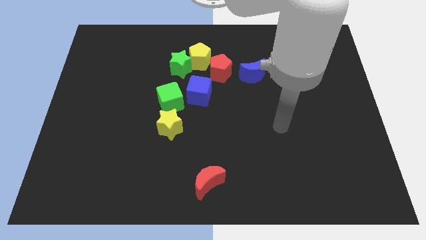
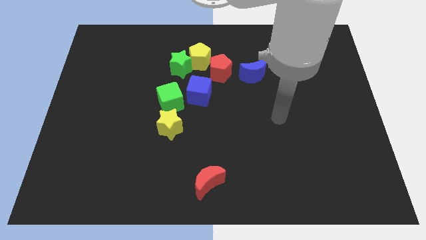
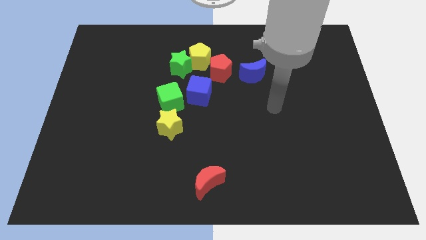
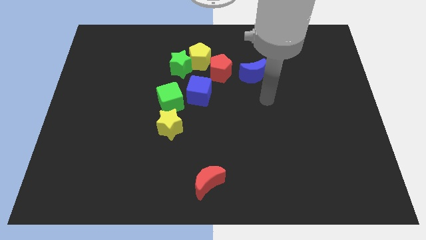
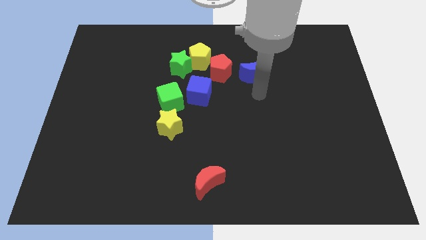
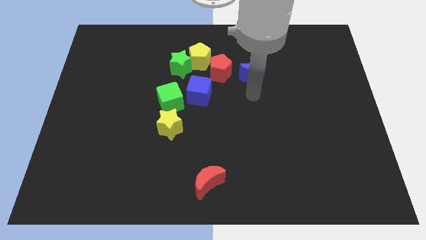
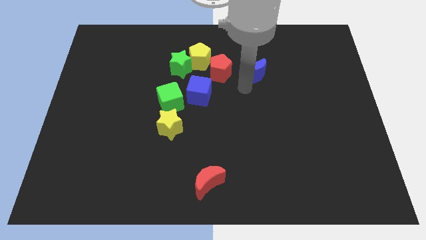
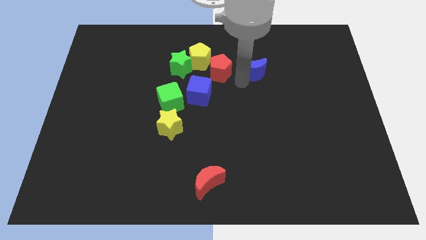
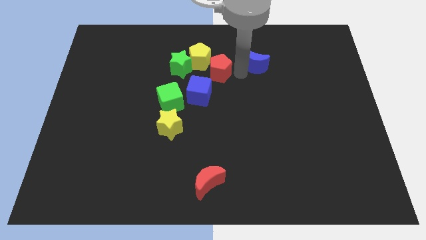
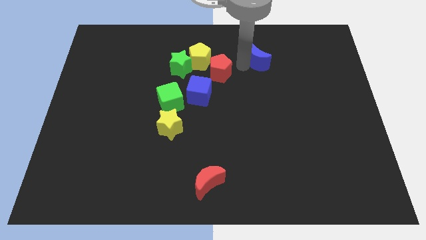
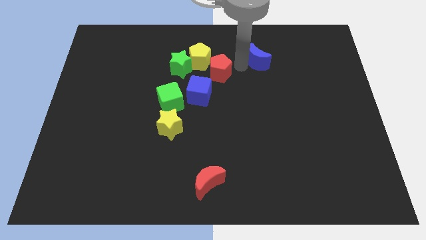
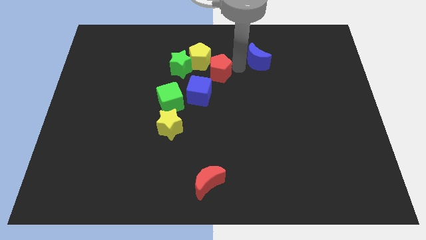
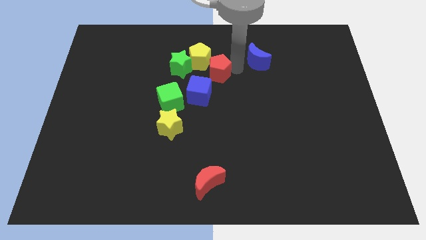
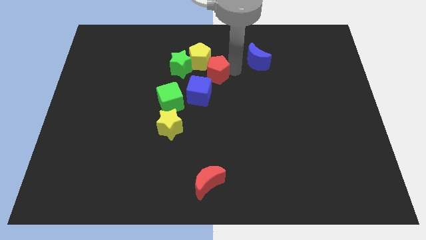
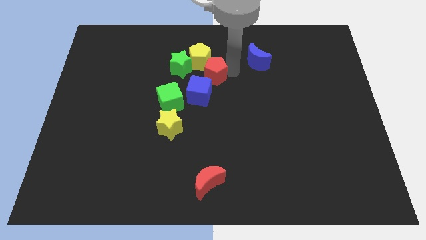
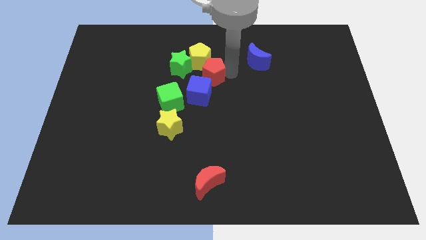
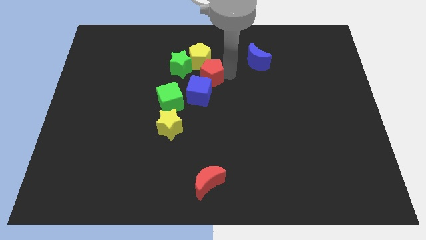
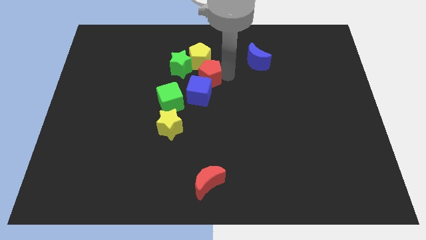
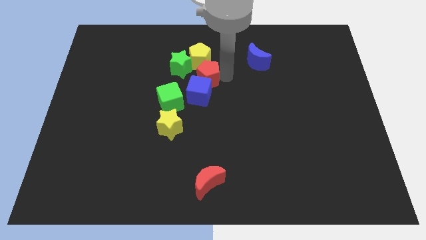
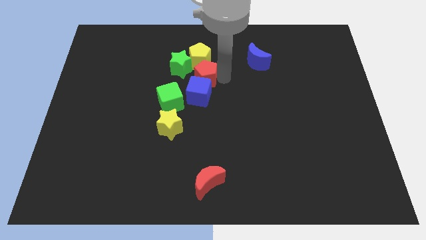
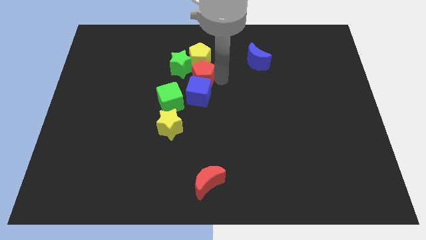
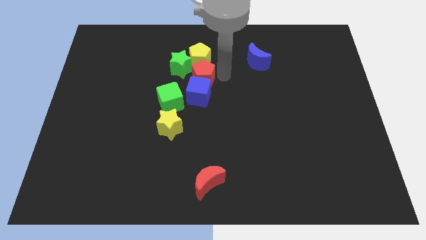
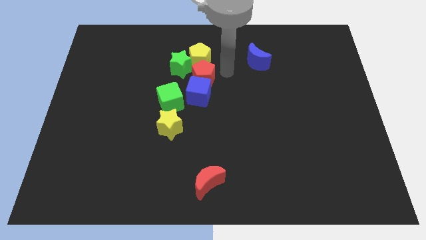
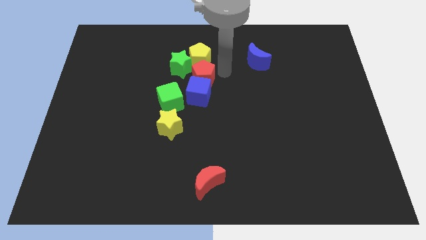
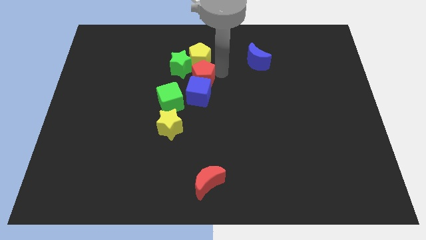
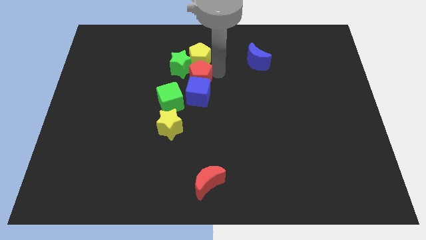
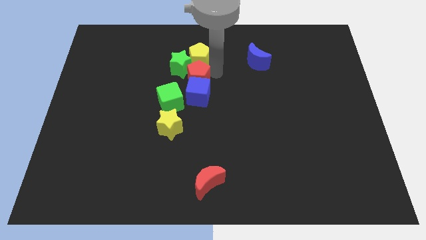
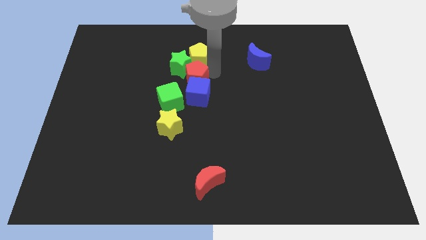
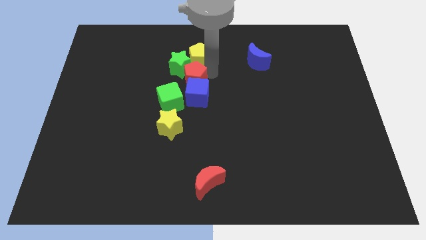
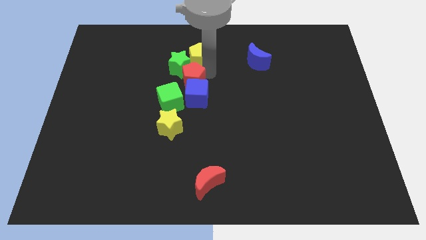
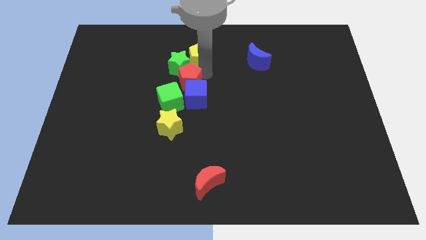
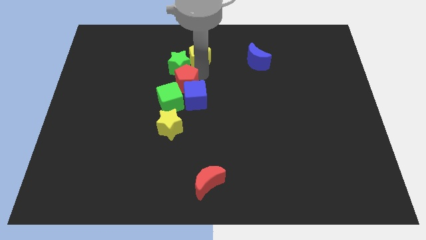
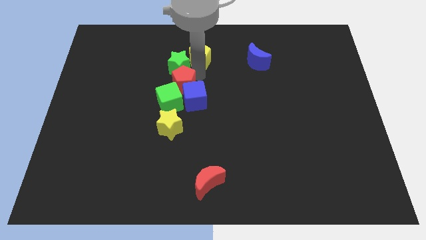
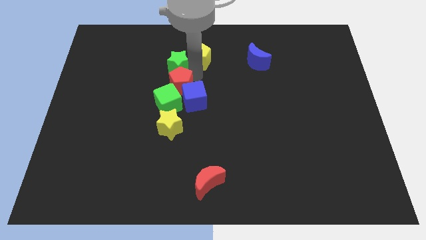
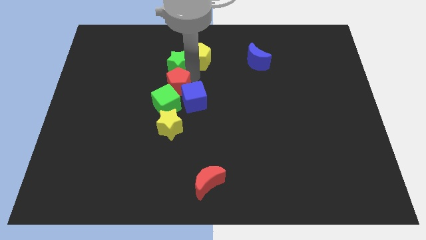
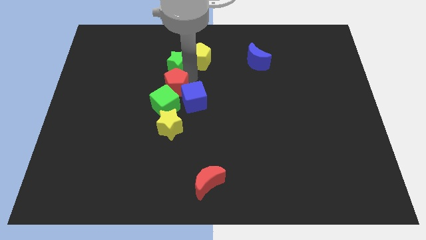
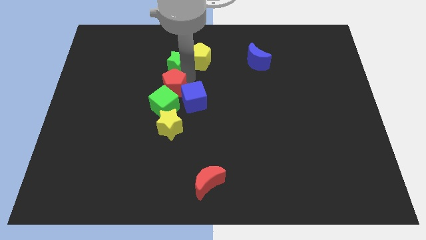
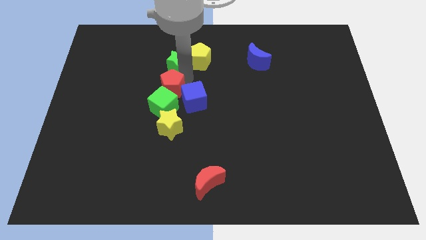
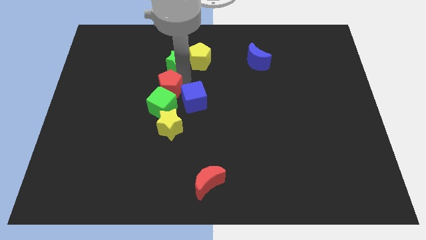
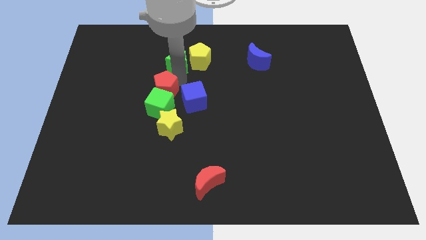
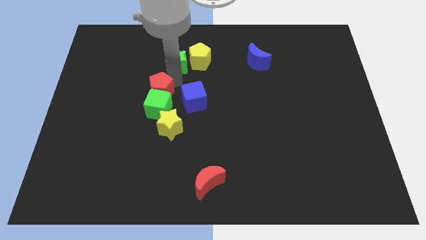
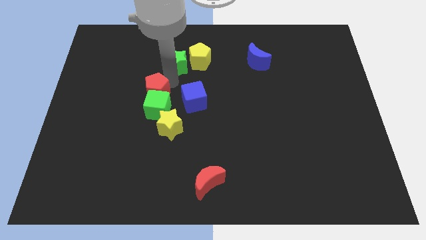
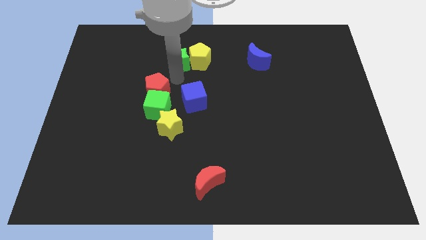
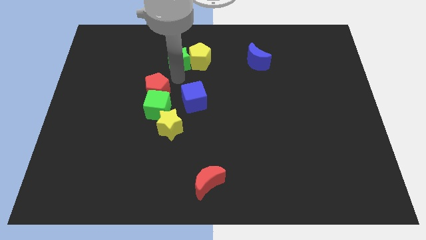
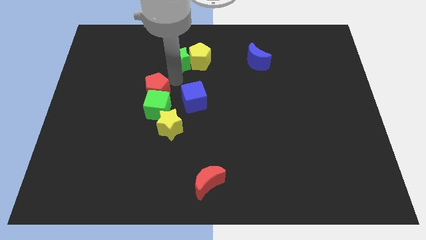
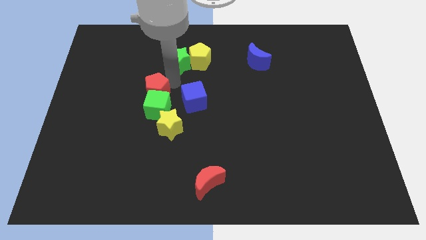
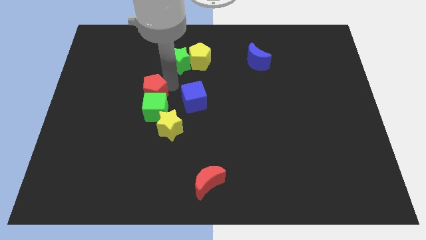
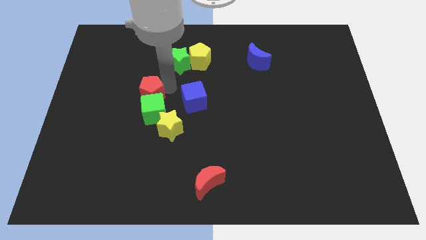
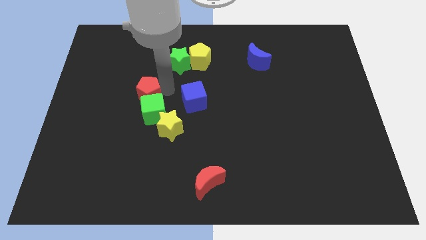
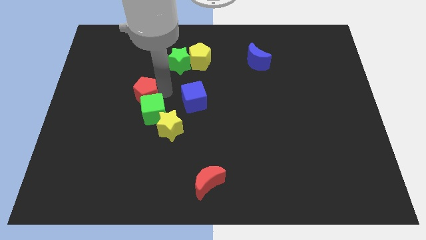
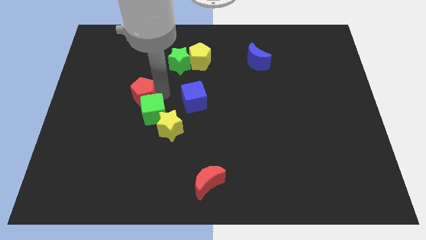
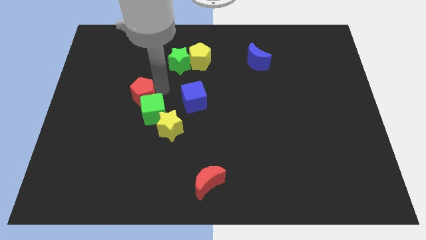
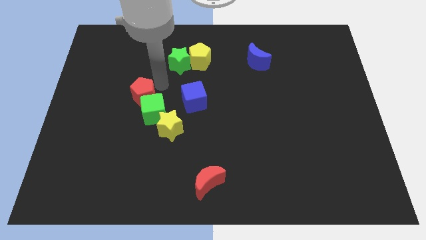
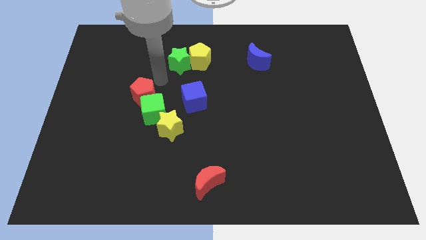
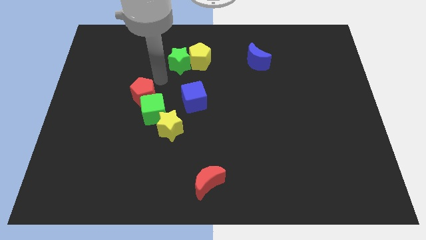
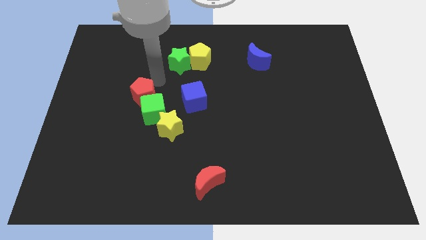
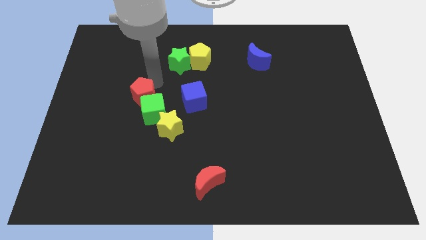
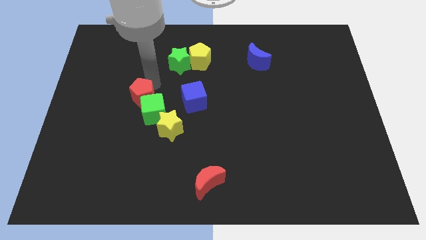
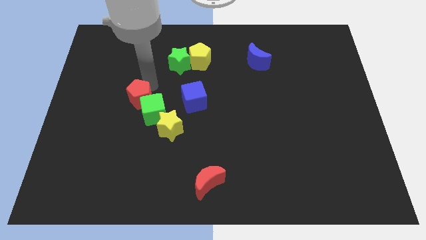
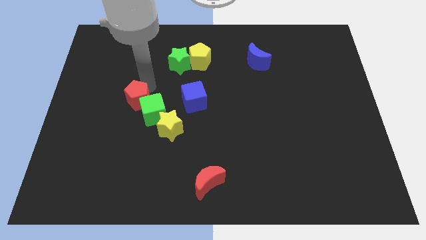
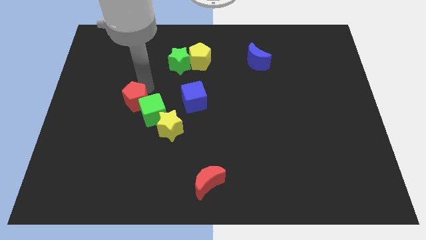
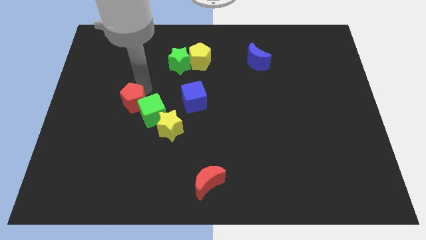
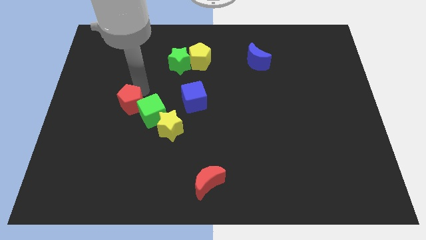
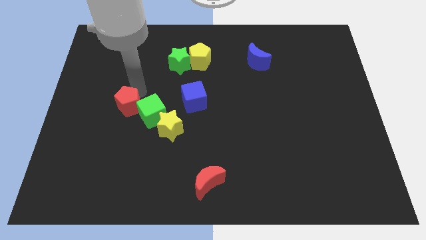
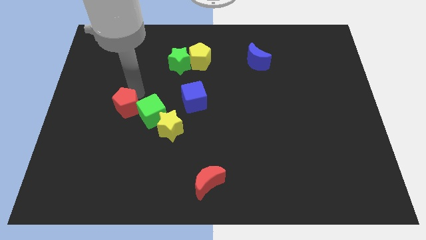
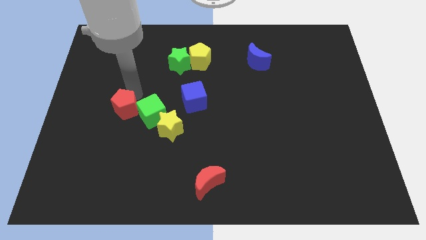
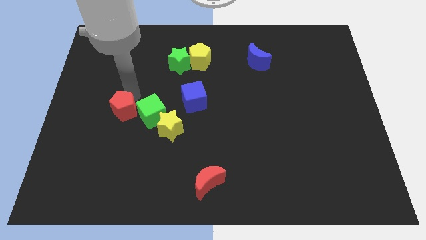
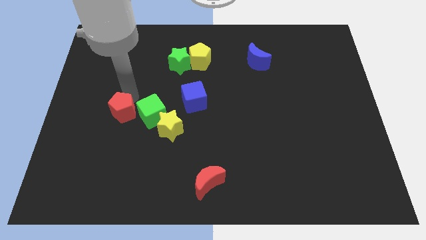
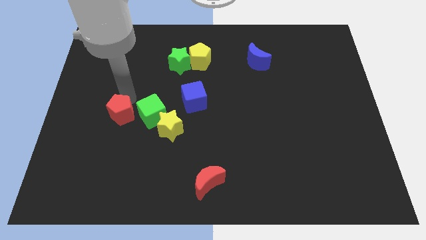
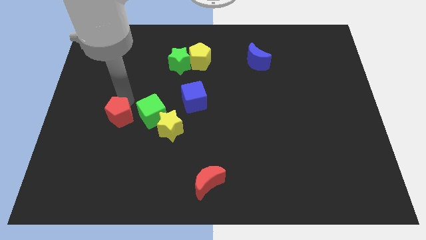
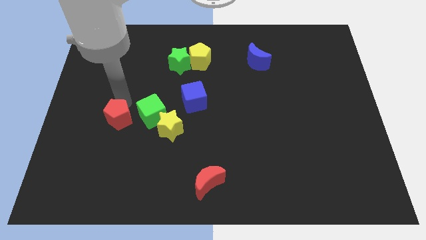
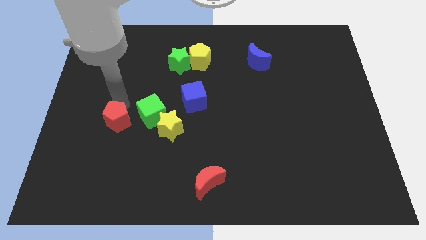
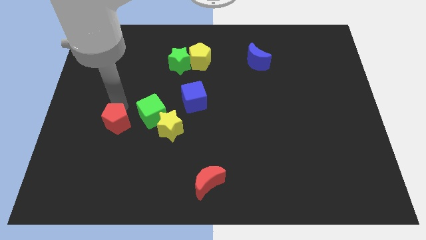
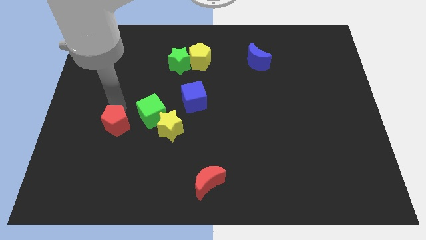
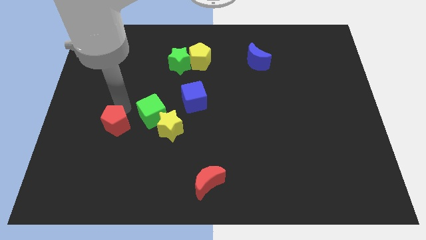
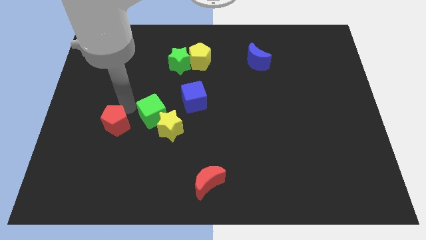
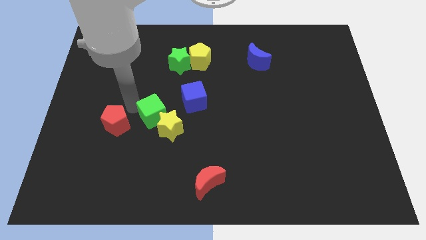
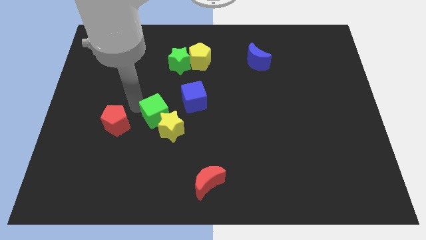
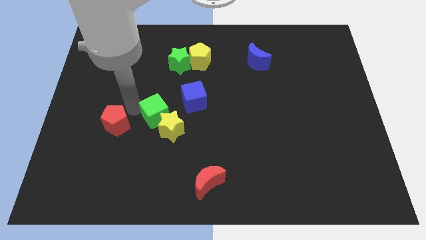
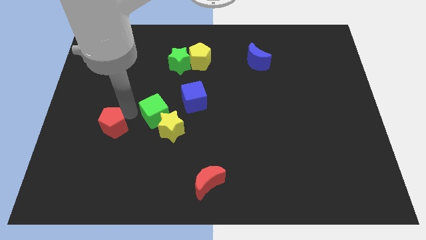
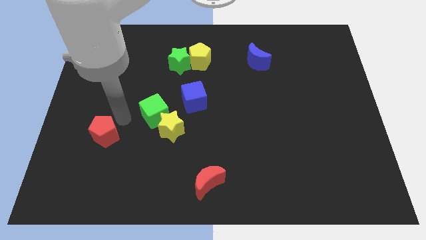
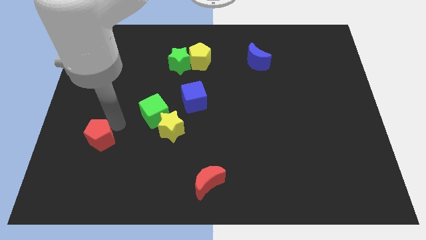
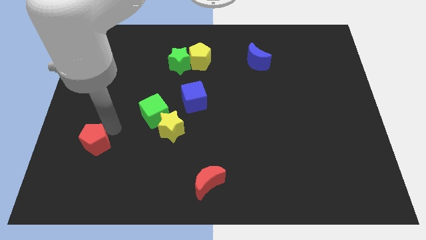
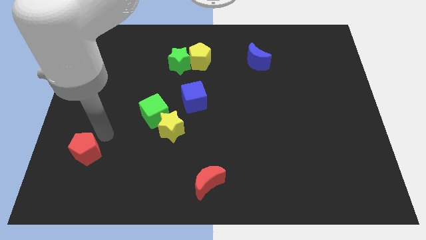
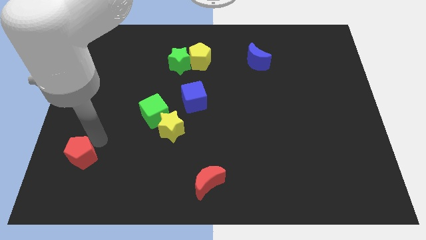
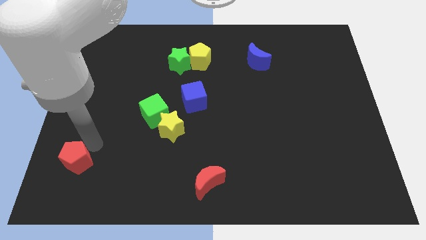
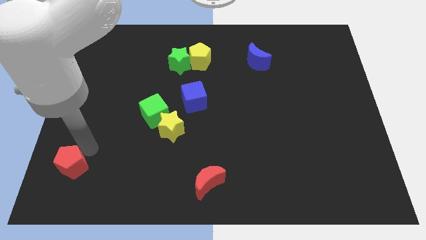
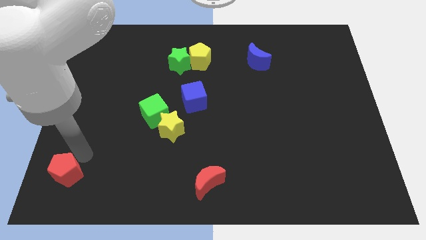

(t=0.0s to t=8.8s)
put the red pentagon to the bottom left corner
